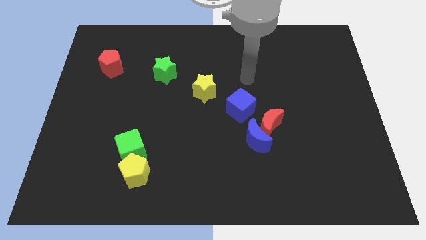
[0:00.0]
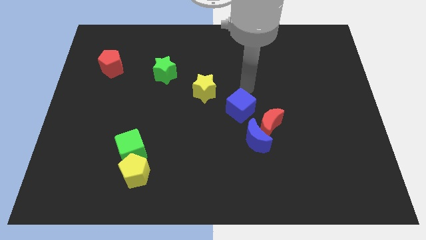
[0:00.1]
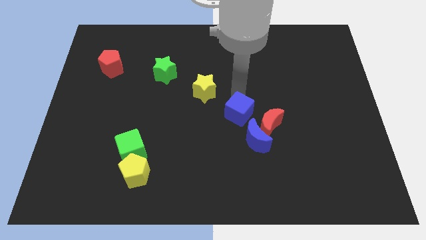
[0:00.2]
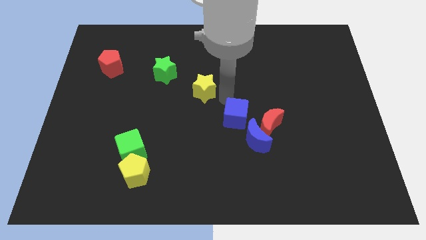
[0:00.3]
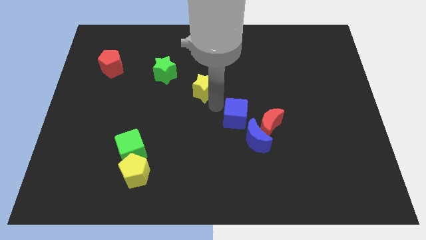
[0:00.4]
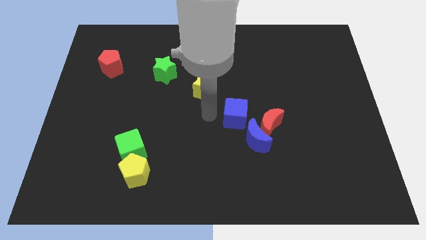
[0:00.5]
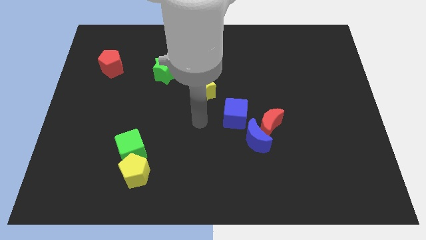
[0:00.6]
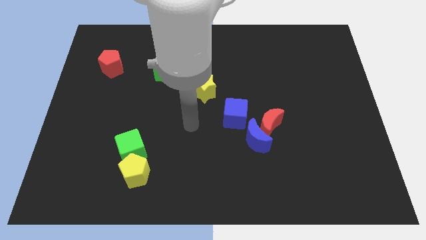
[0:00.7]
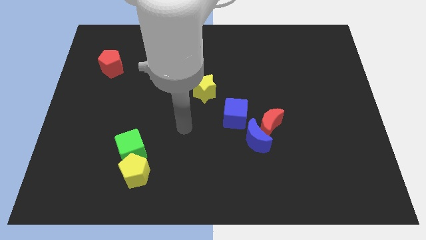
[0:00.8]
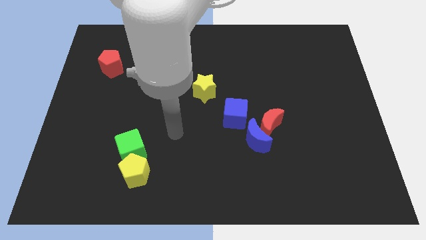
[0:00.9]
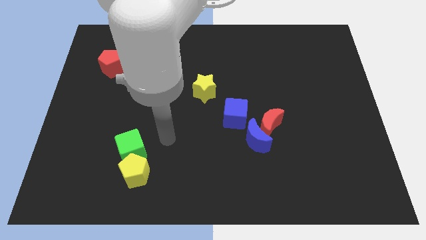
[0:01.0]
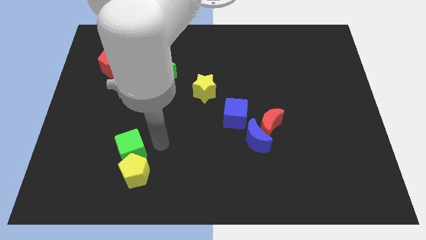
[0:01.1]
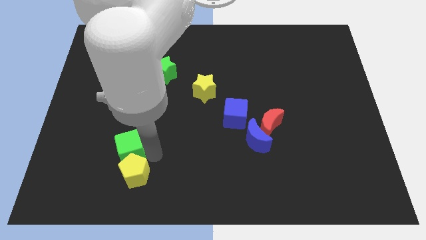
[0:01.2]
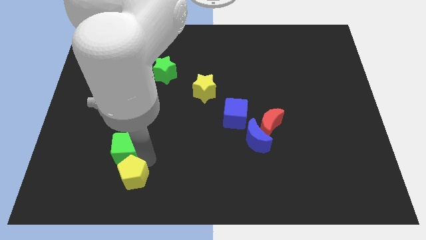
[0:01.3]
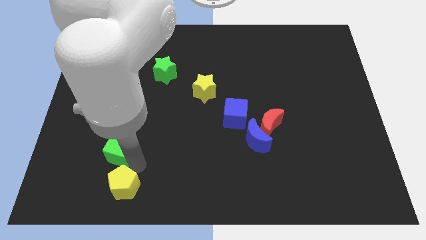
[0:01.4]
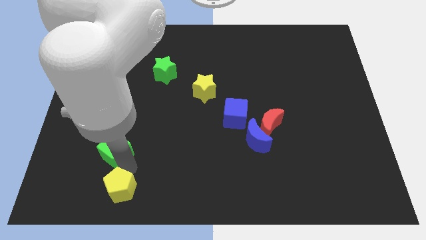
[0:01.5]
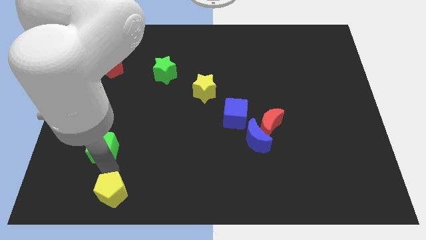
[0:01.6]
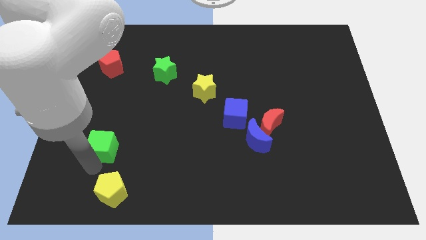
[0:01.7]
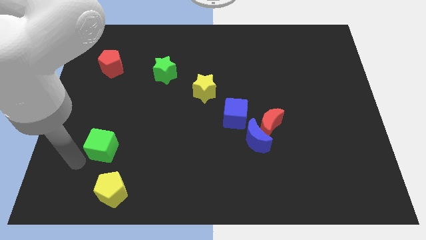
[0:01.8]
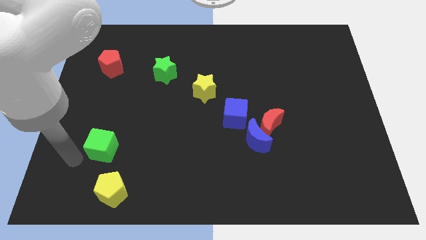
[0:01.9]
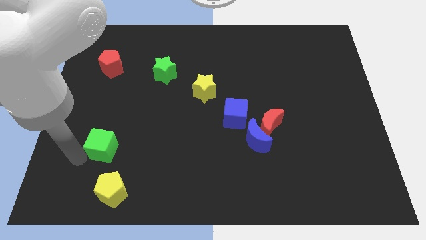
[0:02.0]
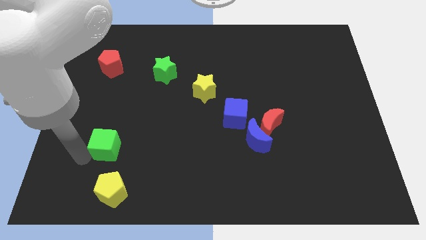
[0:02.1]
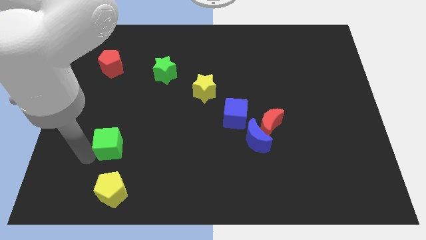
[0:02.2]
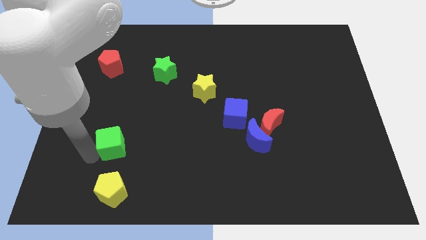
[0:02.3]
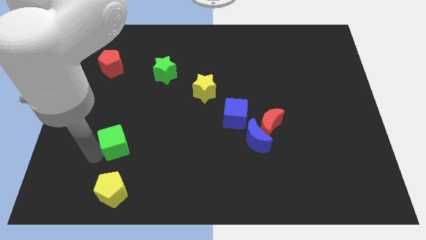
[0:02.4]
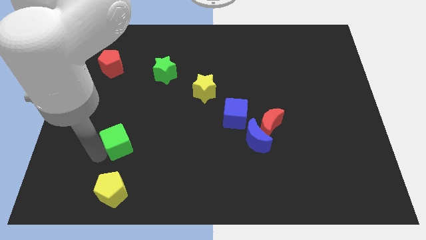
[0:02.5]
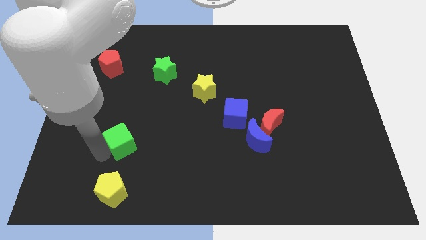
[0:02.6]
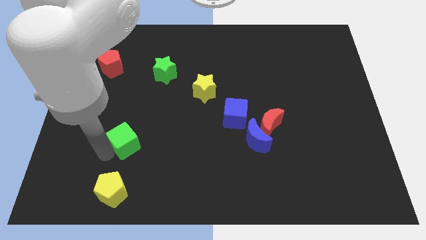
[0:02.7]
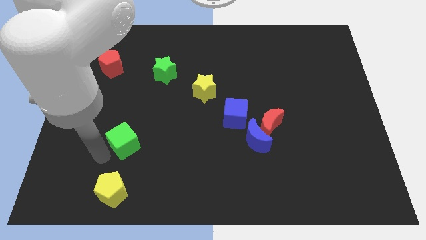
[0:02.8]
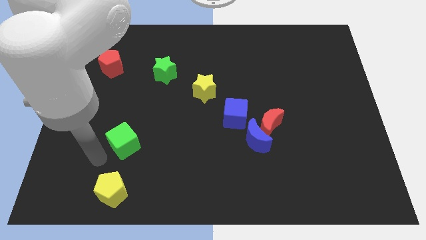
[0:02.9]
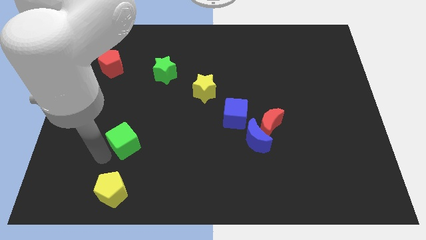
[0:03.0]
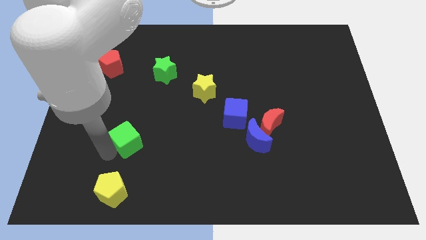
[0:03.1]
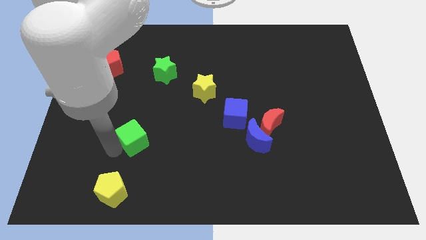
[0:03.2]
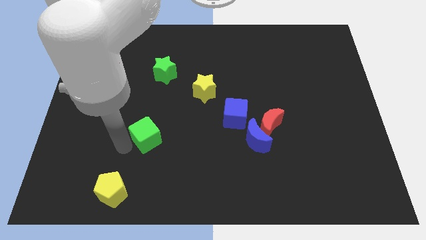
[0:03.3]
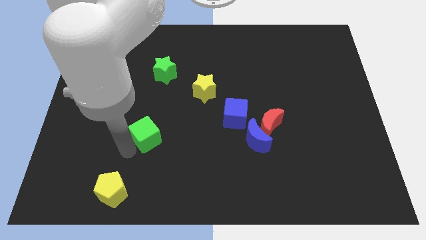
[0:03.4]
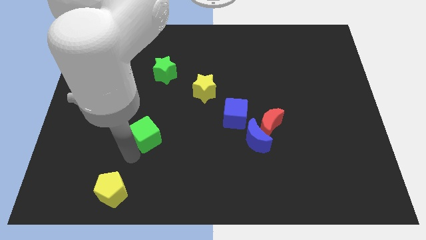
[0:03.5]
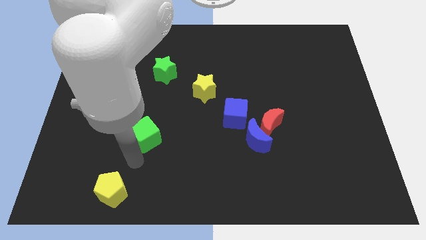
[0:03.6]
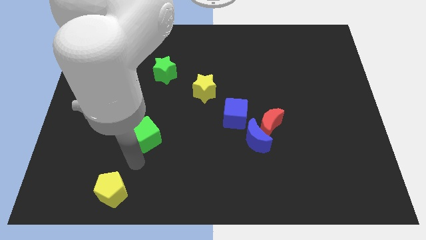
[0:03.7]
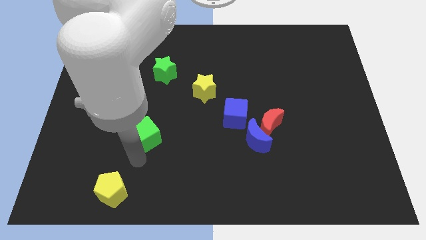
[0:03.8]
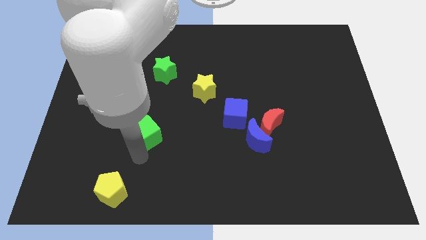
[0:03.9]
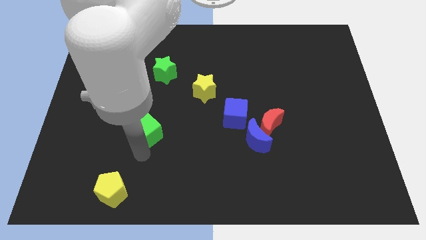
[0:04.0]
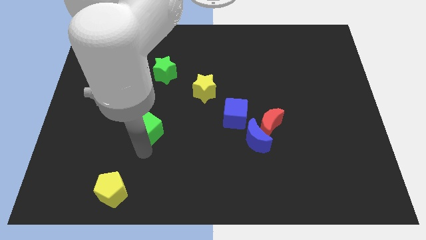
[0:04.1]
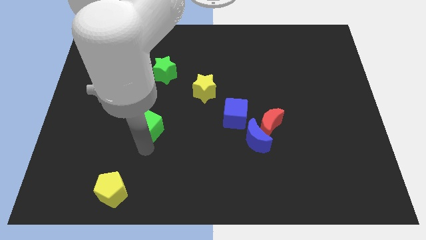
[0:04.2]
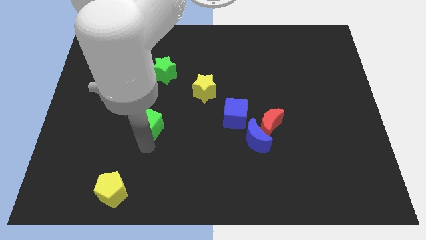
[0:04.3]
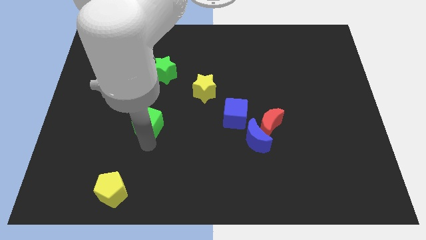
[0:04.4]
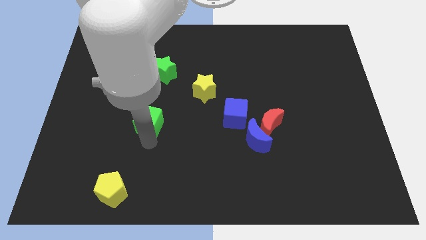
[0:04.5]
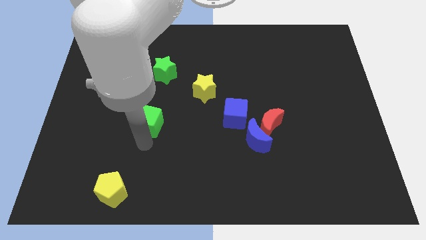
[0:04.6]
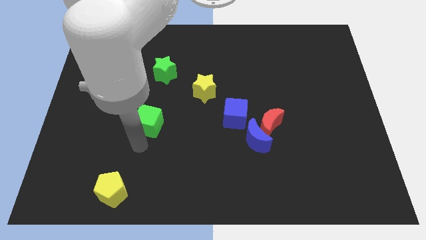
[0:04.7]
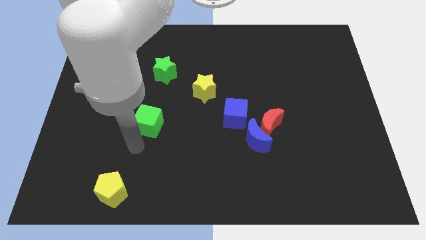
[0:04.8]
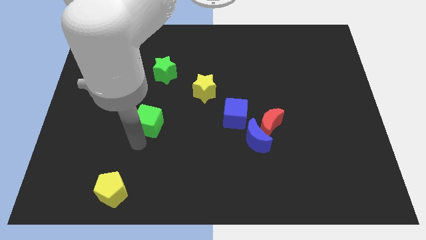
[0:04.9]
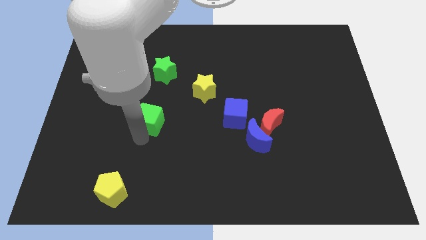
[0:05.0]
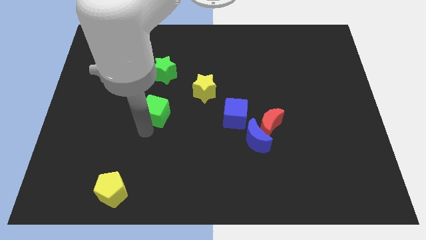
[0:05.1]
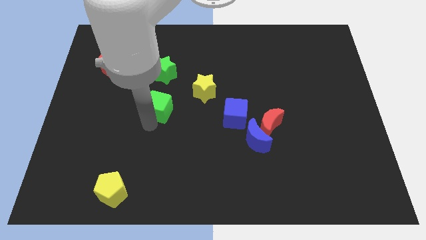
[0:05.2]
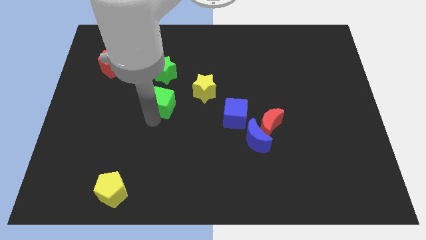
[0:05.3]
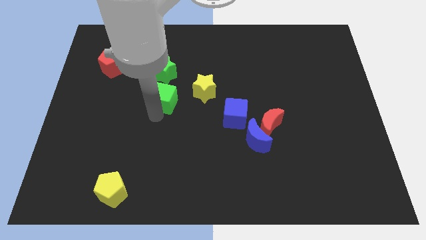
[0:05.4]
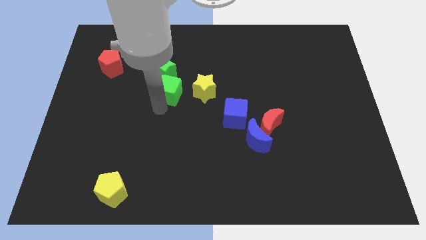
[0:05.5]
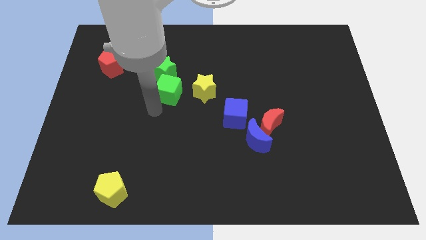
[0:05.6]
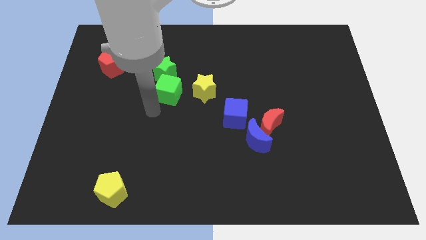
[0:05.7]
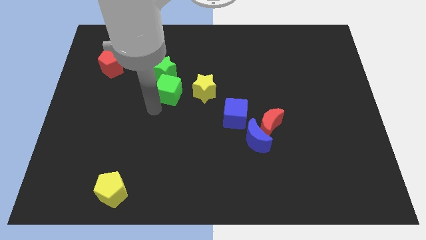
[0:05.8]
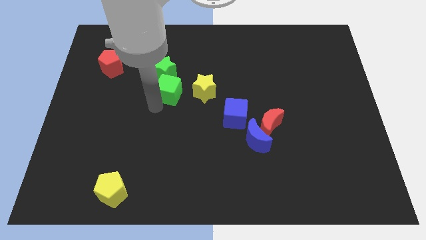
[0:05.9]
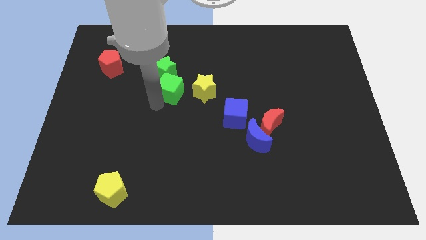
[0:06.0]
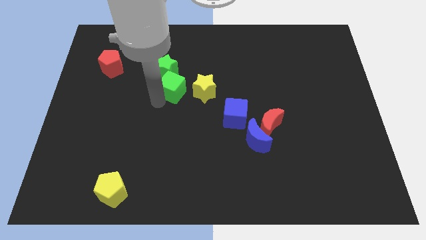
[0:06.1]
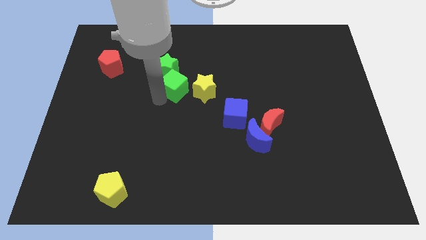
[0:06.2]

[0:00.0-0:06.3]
move the green cube diagonally up and to the left of the yellow star

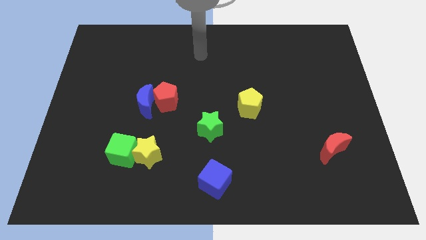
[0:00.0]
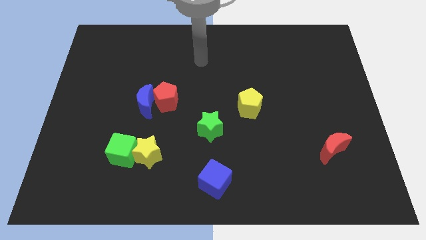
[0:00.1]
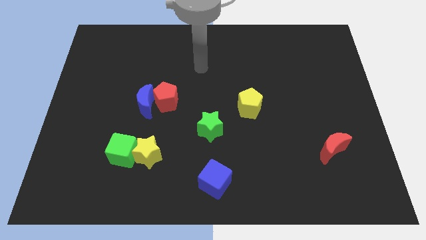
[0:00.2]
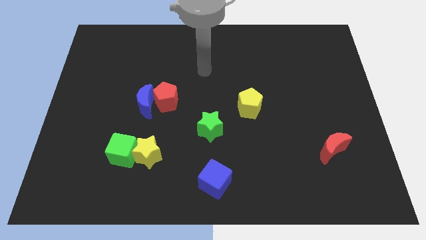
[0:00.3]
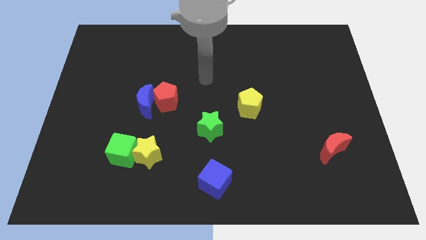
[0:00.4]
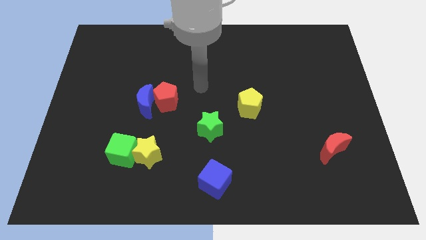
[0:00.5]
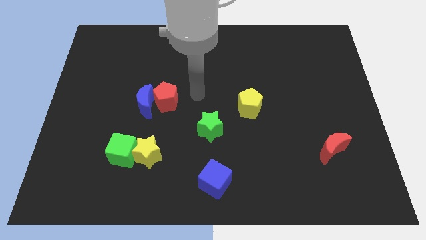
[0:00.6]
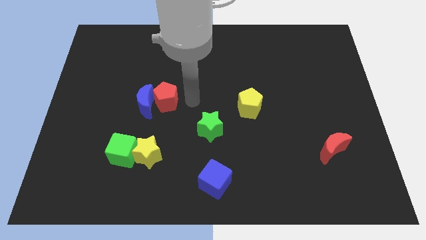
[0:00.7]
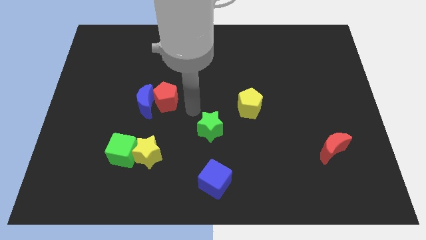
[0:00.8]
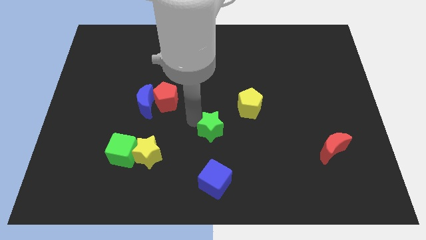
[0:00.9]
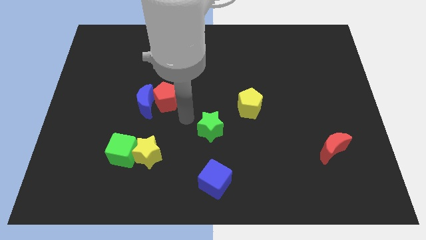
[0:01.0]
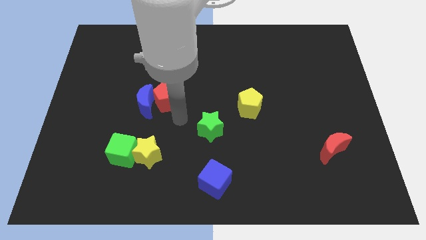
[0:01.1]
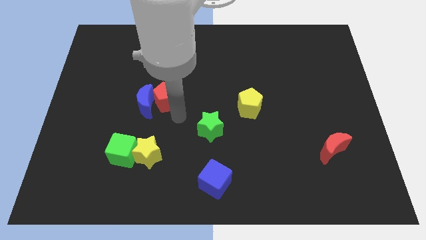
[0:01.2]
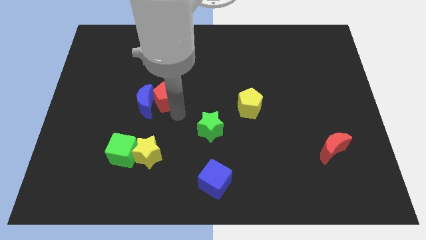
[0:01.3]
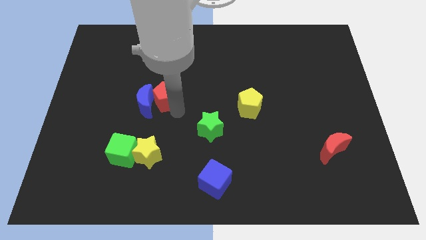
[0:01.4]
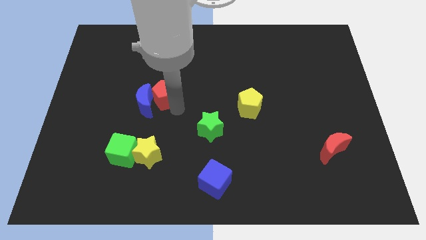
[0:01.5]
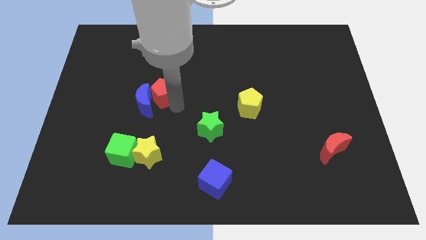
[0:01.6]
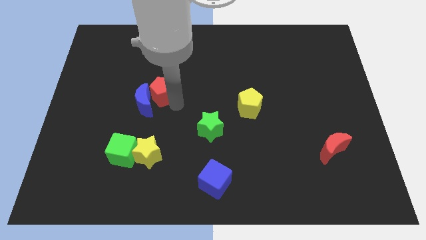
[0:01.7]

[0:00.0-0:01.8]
push the red pentagon to the top side of the blue moon

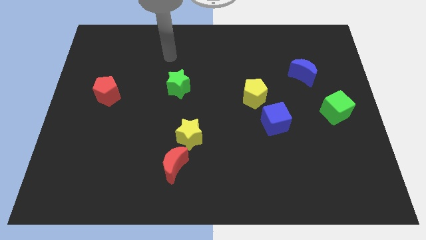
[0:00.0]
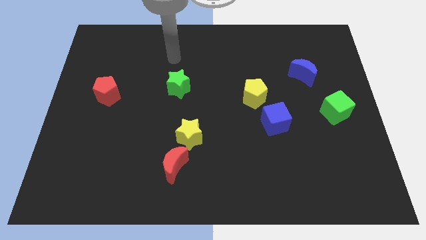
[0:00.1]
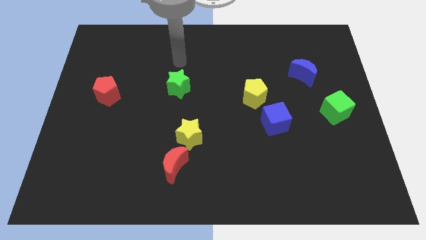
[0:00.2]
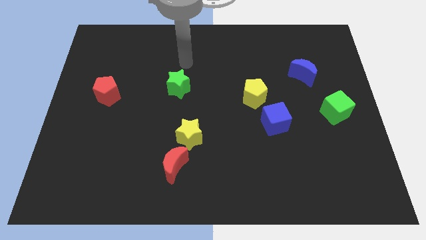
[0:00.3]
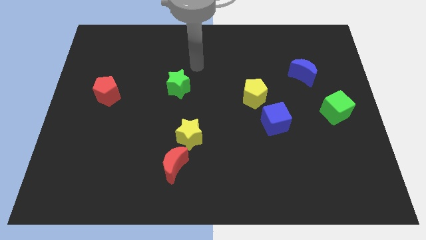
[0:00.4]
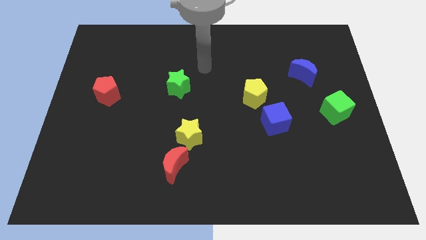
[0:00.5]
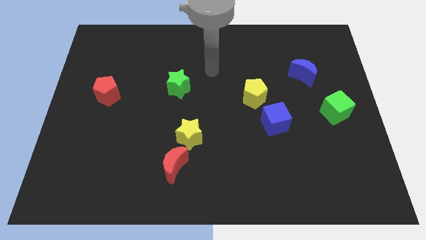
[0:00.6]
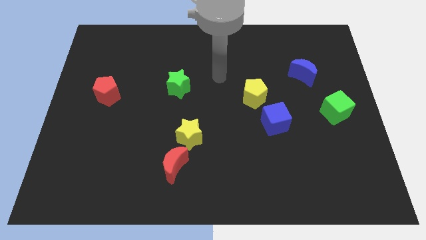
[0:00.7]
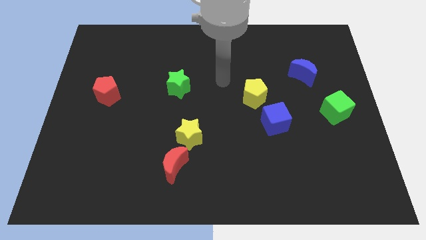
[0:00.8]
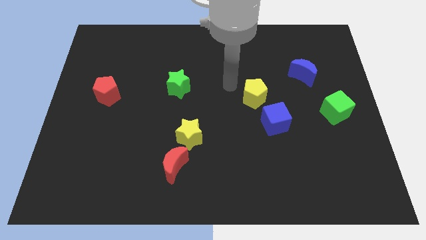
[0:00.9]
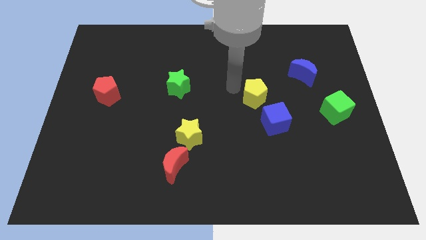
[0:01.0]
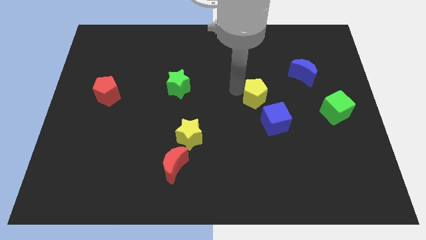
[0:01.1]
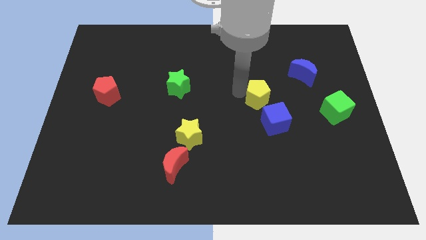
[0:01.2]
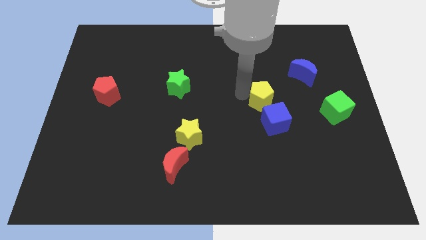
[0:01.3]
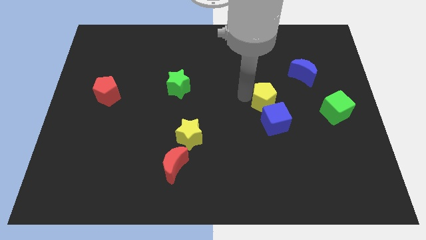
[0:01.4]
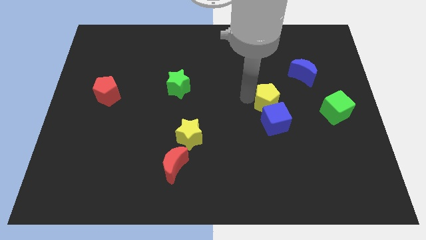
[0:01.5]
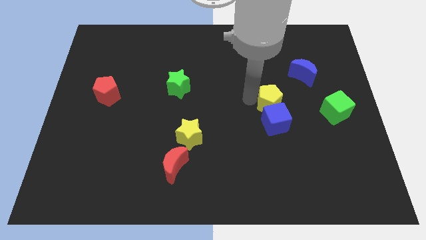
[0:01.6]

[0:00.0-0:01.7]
push the yellow pentagon to the left of the green cube
